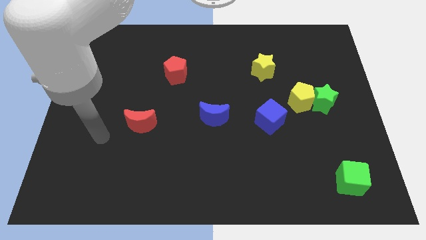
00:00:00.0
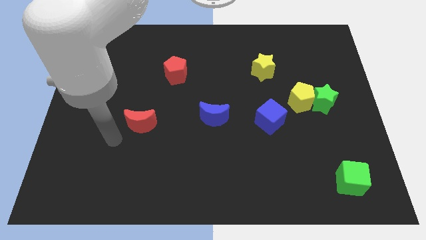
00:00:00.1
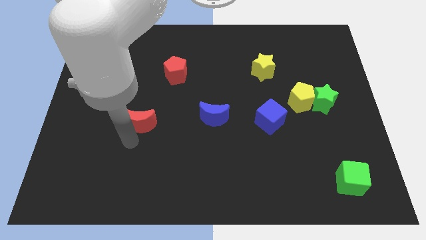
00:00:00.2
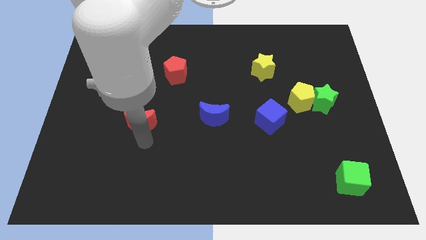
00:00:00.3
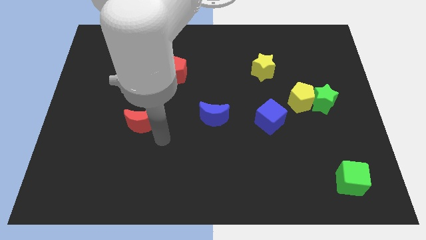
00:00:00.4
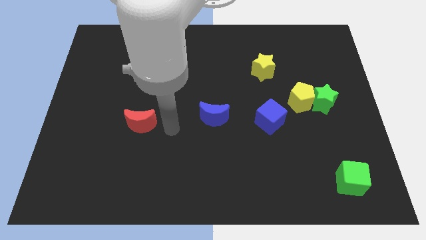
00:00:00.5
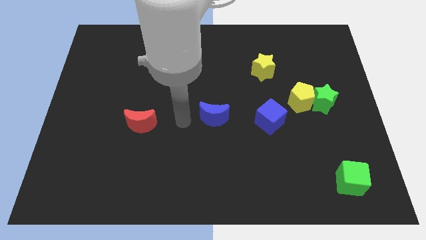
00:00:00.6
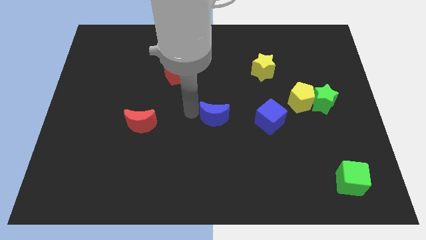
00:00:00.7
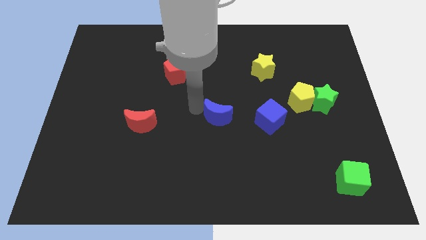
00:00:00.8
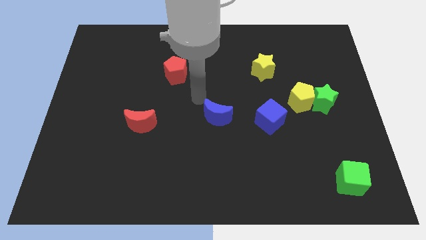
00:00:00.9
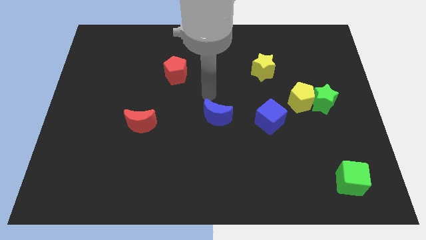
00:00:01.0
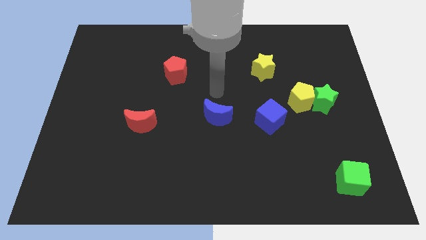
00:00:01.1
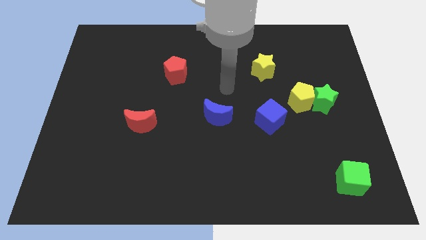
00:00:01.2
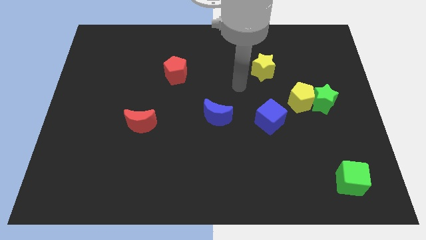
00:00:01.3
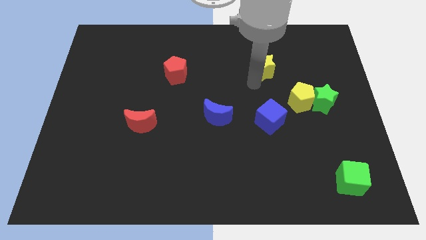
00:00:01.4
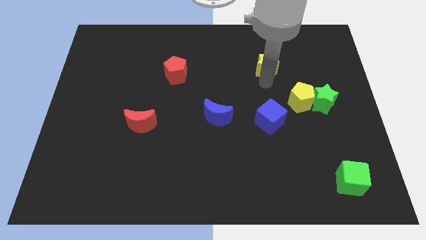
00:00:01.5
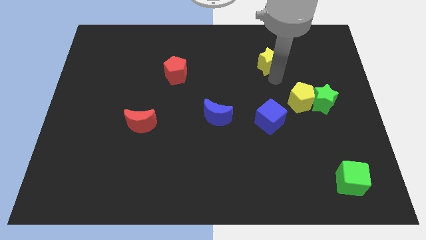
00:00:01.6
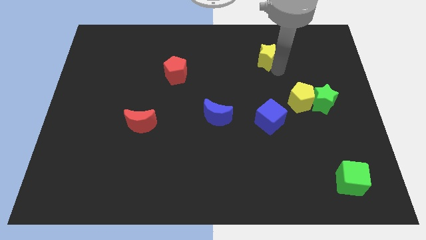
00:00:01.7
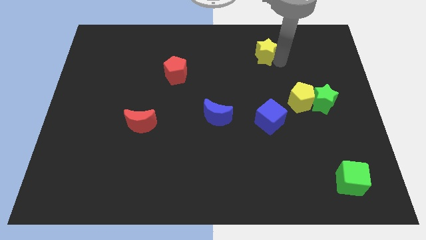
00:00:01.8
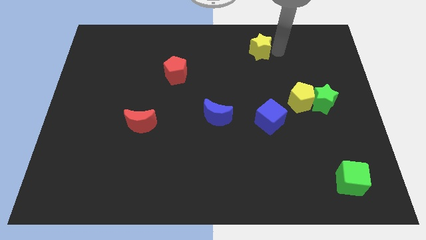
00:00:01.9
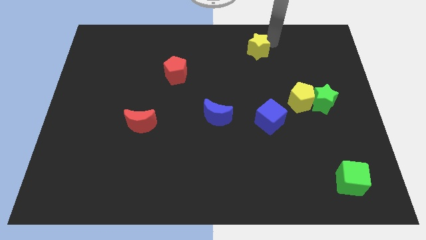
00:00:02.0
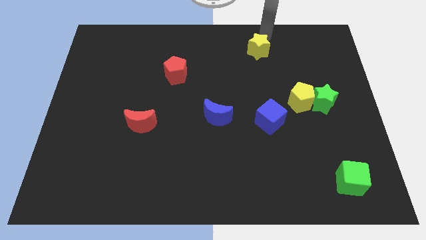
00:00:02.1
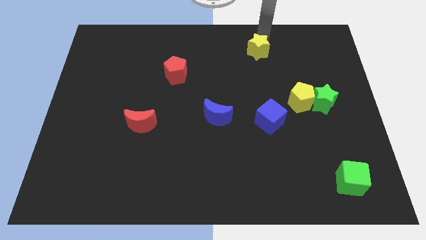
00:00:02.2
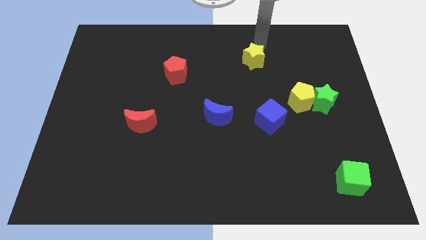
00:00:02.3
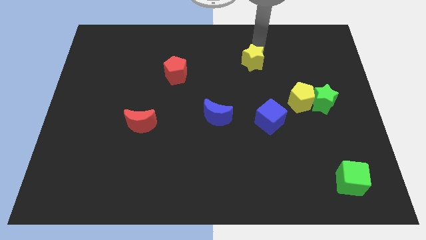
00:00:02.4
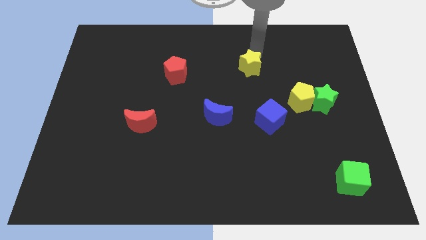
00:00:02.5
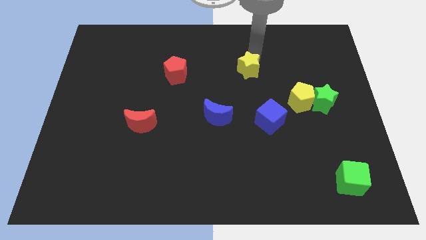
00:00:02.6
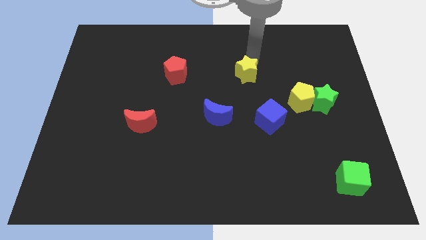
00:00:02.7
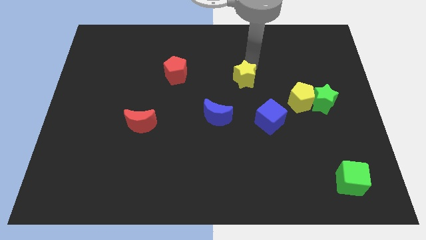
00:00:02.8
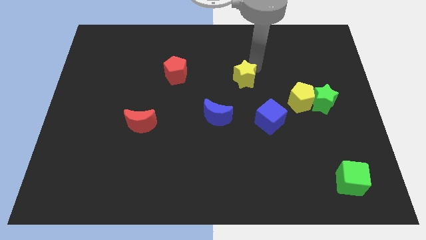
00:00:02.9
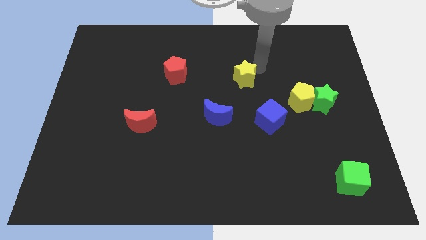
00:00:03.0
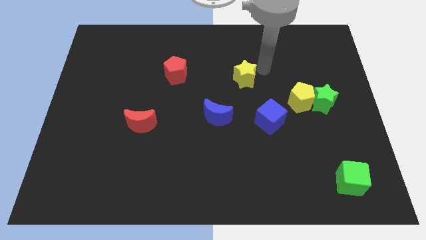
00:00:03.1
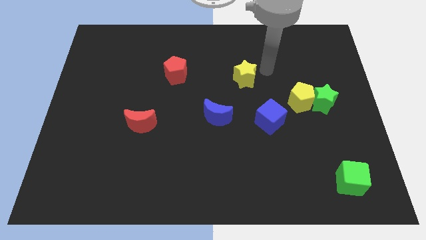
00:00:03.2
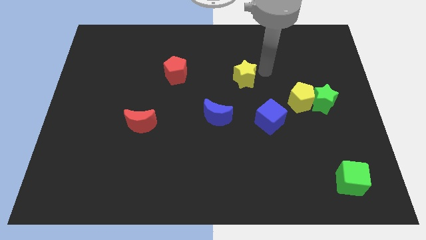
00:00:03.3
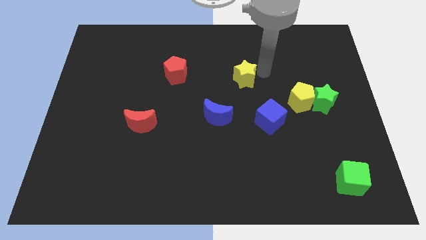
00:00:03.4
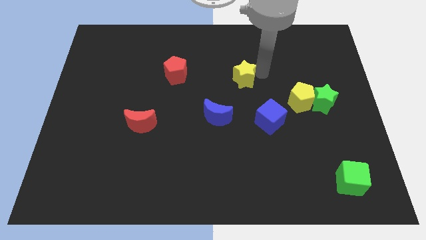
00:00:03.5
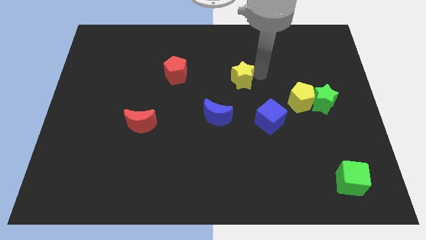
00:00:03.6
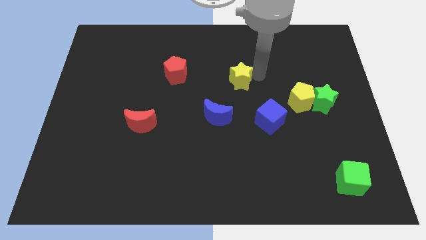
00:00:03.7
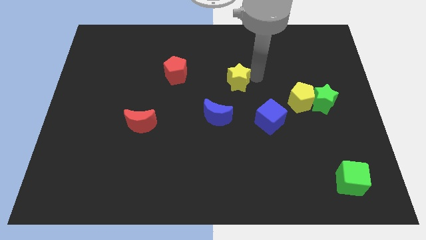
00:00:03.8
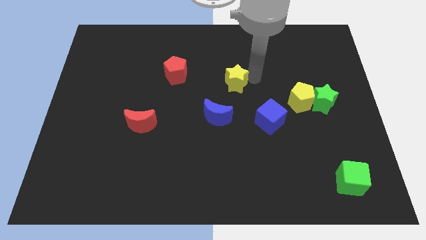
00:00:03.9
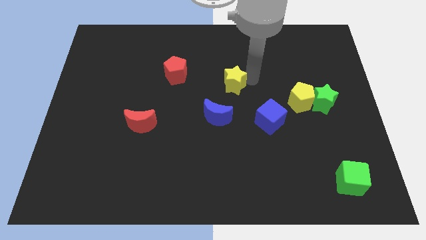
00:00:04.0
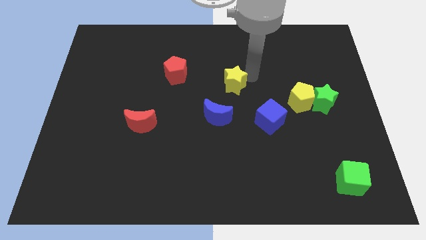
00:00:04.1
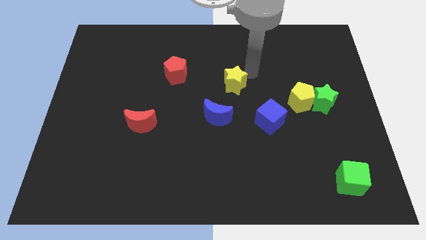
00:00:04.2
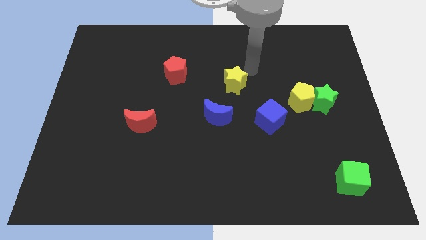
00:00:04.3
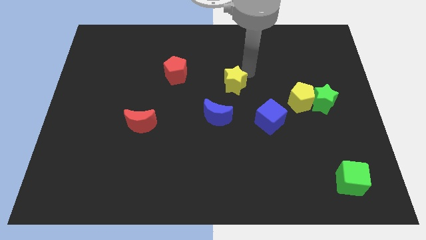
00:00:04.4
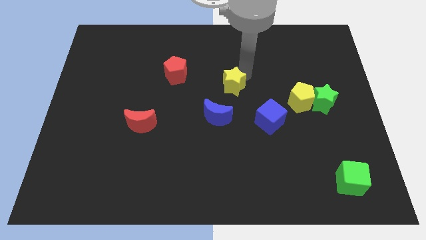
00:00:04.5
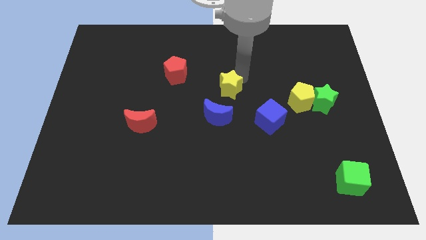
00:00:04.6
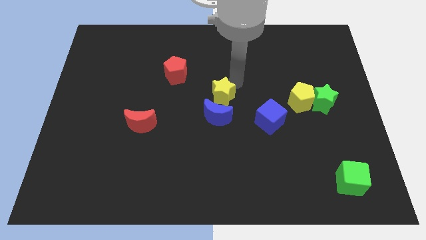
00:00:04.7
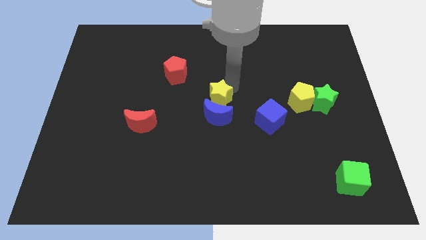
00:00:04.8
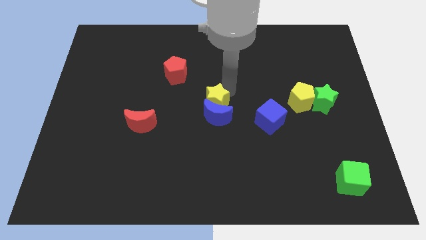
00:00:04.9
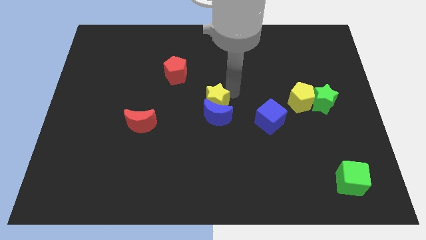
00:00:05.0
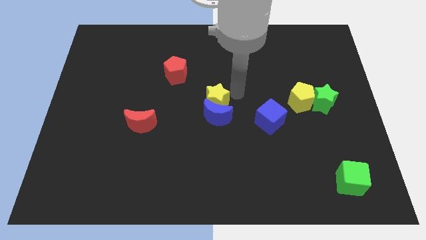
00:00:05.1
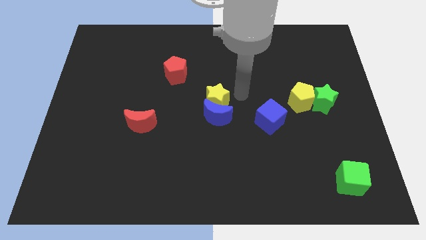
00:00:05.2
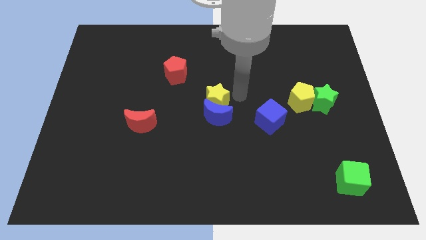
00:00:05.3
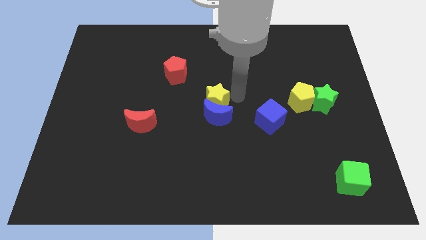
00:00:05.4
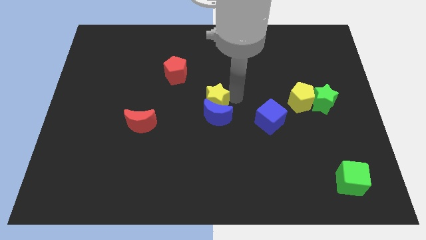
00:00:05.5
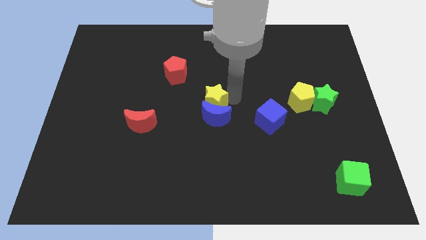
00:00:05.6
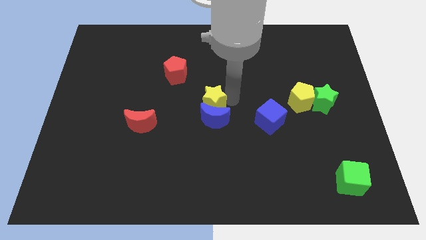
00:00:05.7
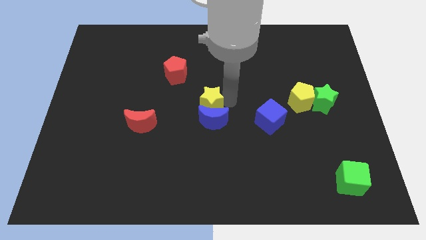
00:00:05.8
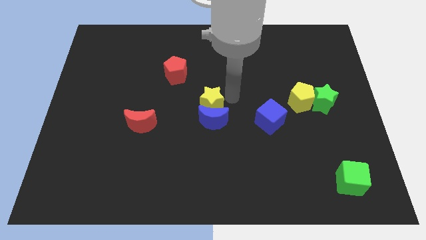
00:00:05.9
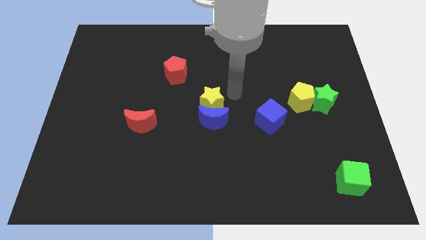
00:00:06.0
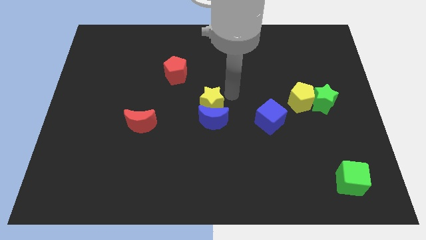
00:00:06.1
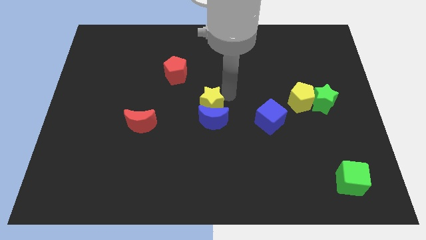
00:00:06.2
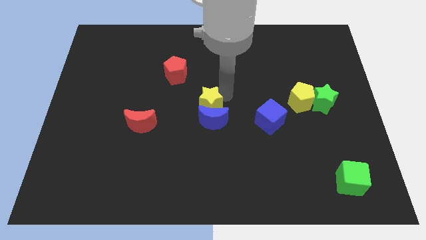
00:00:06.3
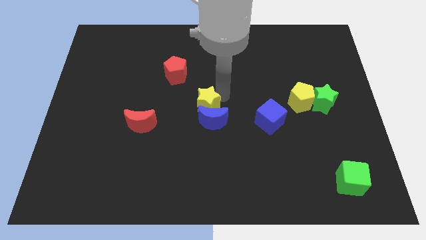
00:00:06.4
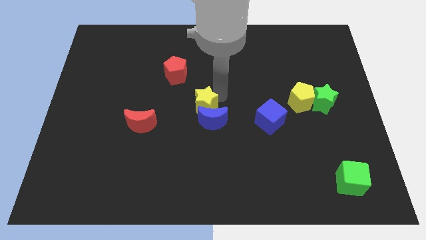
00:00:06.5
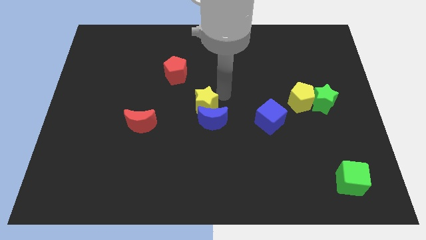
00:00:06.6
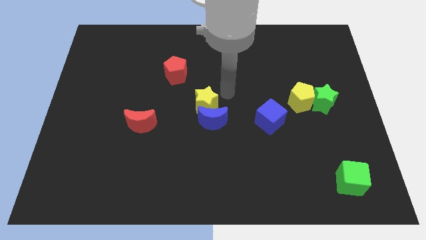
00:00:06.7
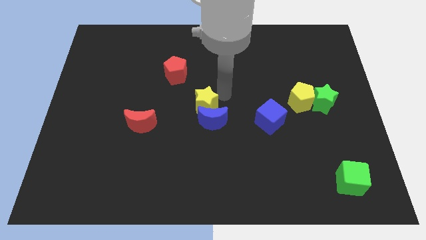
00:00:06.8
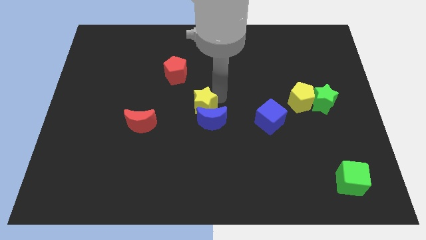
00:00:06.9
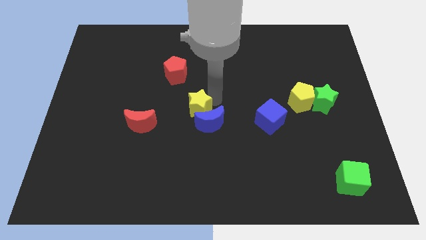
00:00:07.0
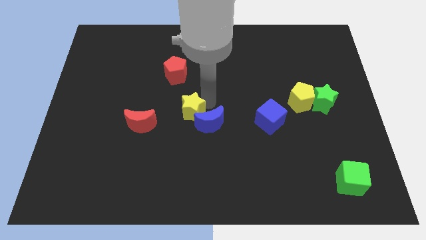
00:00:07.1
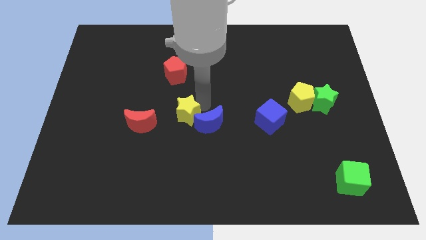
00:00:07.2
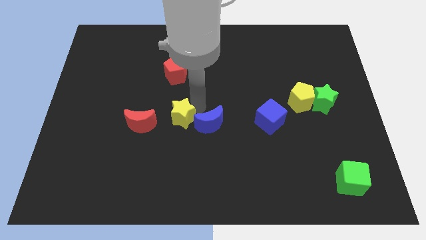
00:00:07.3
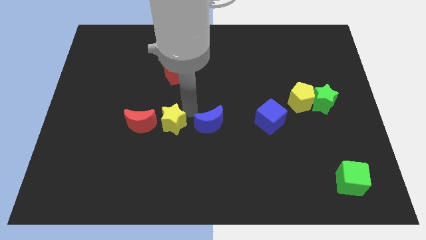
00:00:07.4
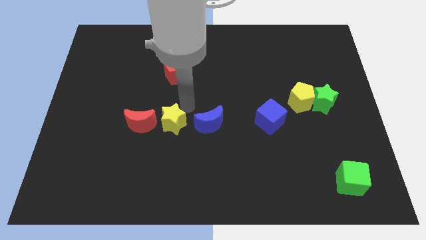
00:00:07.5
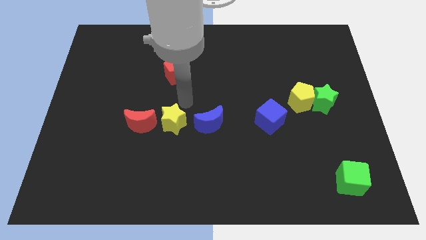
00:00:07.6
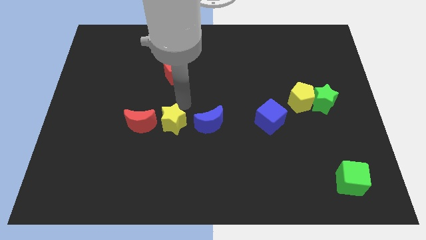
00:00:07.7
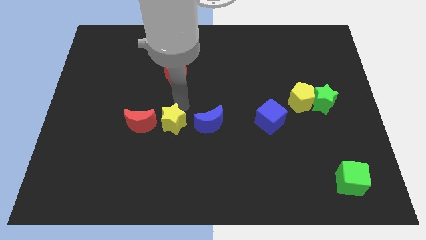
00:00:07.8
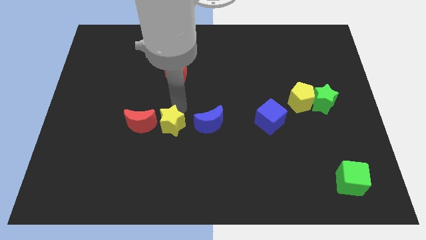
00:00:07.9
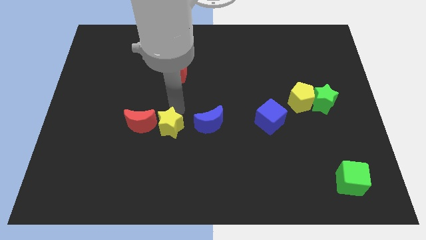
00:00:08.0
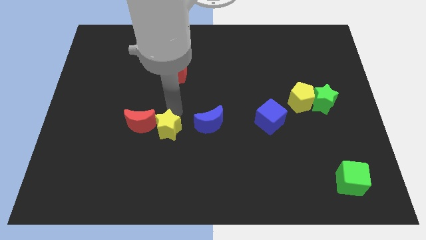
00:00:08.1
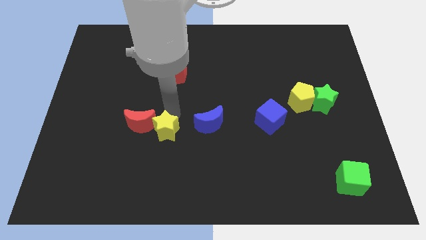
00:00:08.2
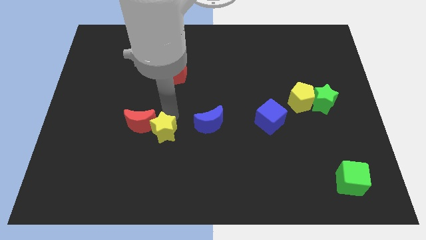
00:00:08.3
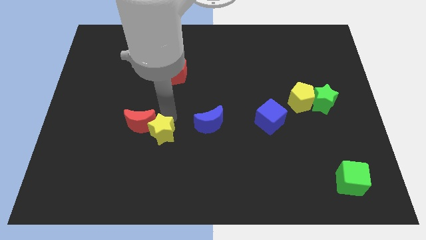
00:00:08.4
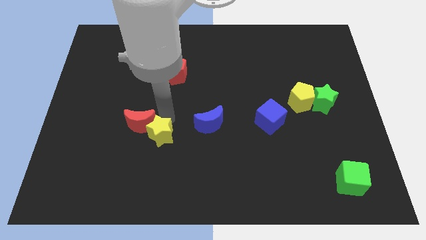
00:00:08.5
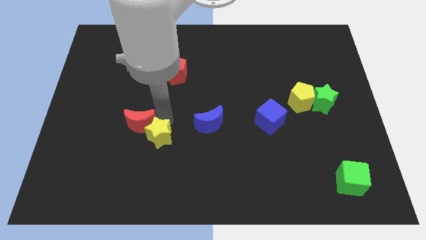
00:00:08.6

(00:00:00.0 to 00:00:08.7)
push the yellow star to the bottom of the red moon
